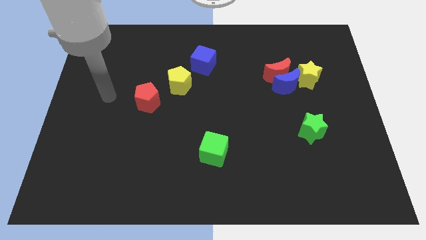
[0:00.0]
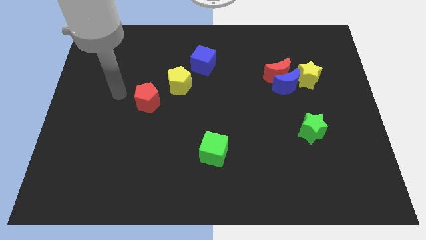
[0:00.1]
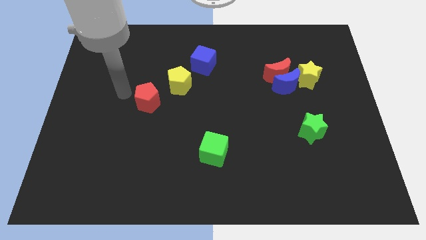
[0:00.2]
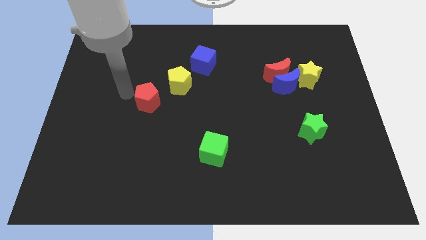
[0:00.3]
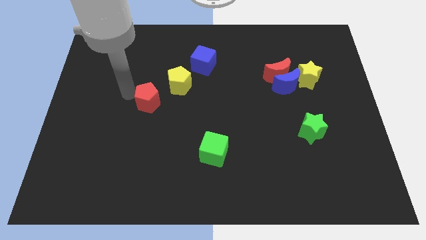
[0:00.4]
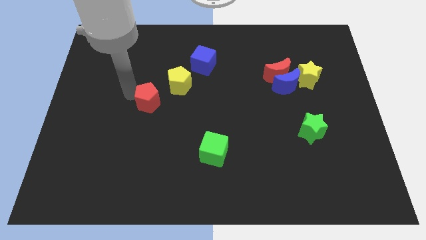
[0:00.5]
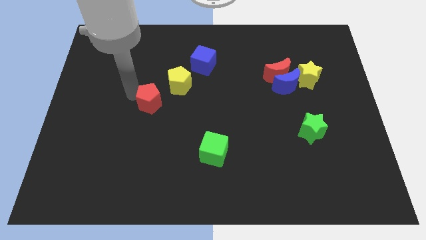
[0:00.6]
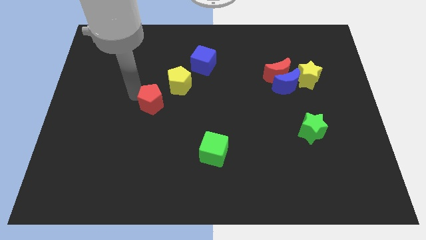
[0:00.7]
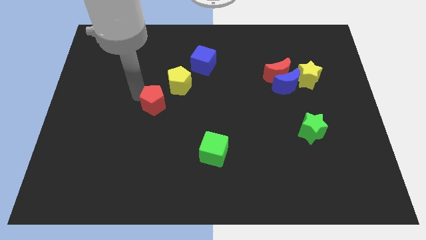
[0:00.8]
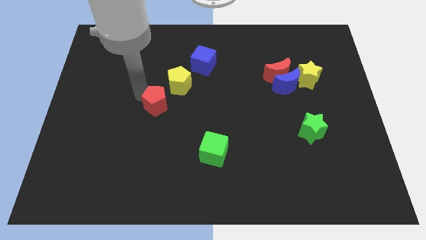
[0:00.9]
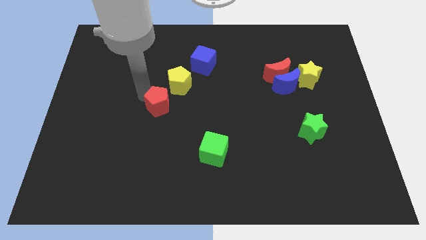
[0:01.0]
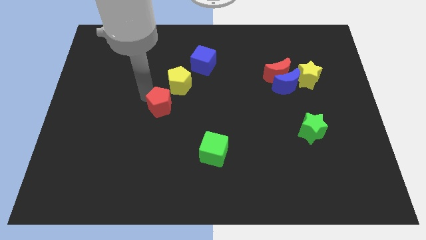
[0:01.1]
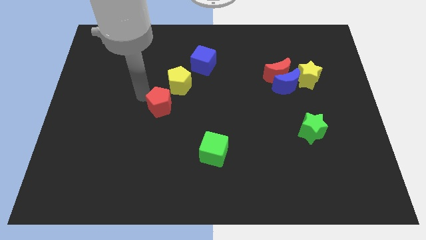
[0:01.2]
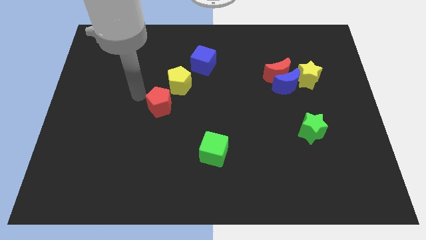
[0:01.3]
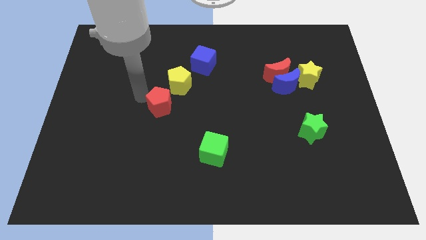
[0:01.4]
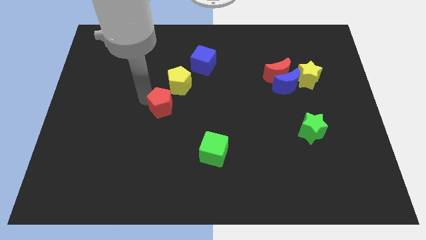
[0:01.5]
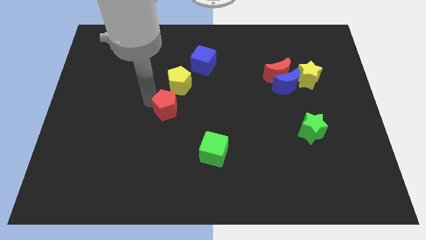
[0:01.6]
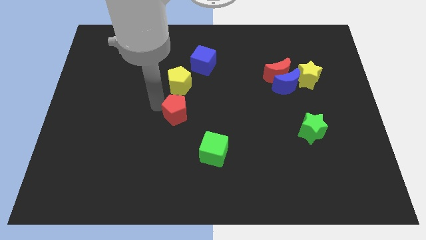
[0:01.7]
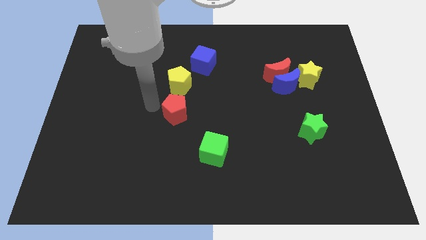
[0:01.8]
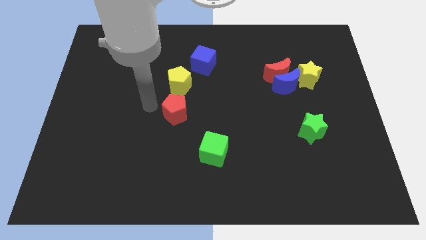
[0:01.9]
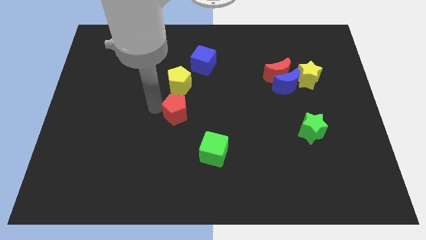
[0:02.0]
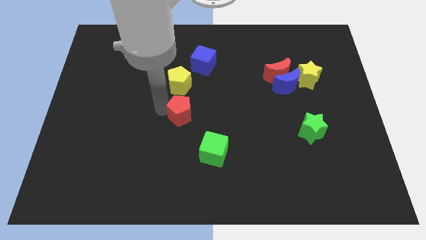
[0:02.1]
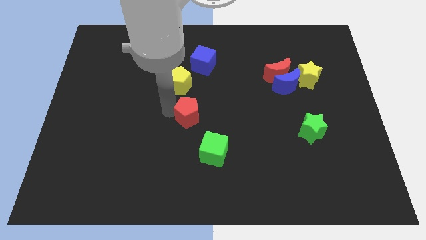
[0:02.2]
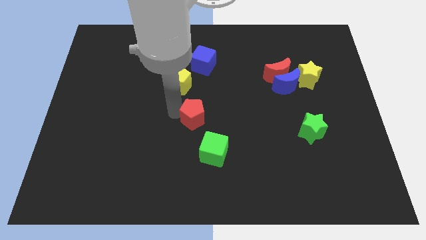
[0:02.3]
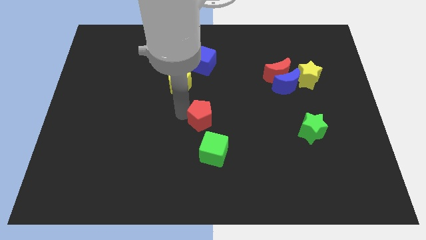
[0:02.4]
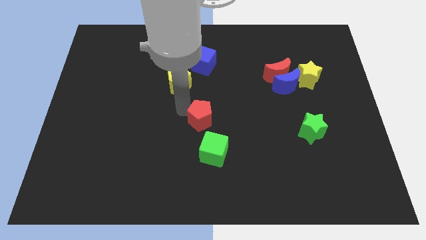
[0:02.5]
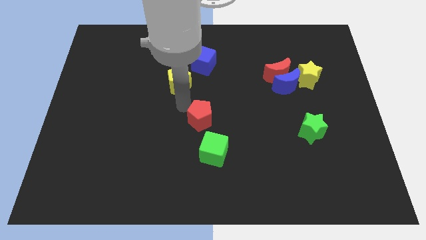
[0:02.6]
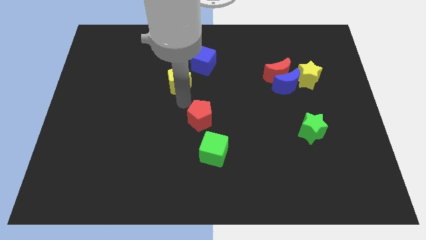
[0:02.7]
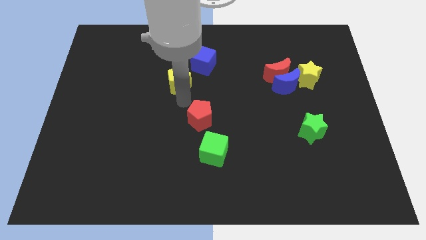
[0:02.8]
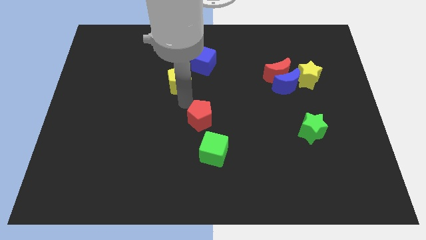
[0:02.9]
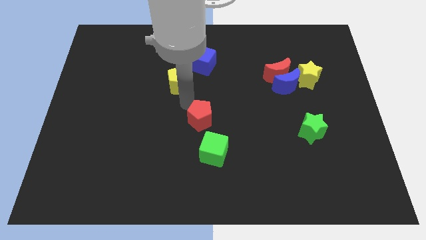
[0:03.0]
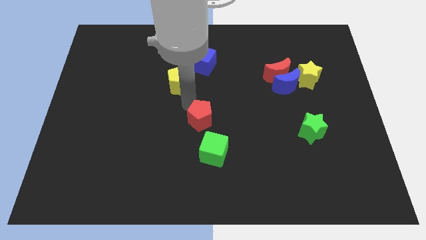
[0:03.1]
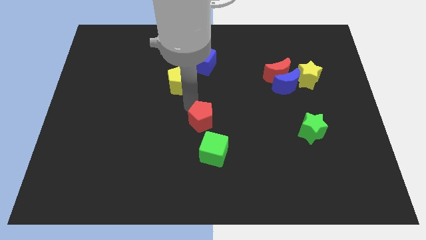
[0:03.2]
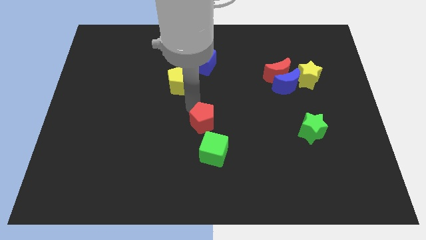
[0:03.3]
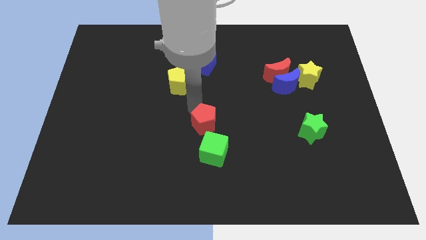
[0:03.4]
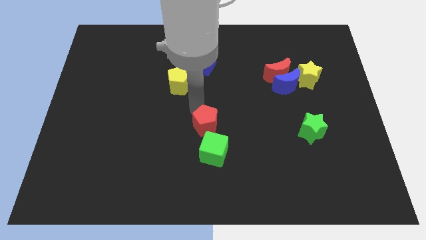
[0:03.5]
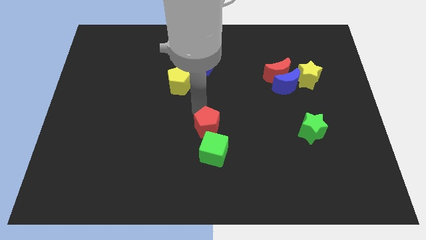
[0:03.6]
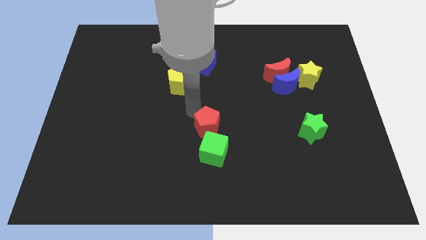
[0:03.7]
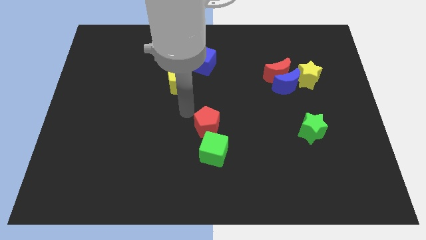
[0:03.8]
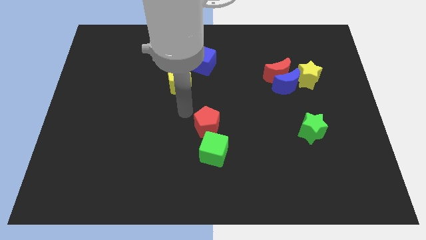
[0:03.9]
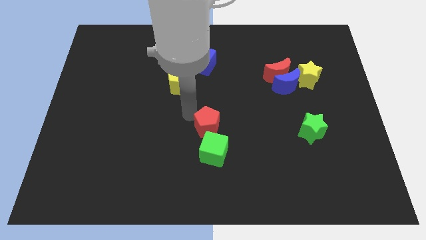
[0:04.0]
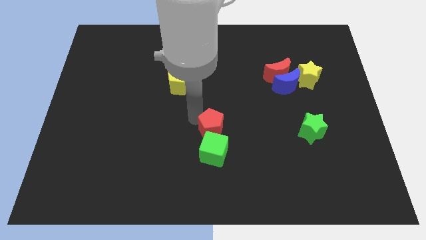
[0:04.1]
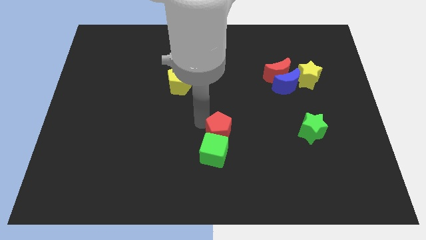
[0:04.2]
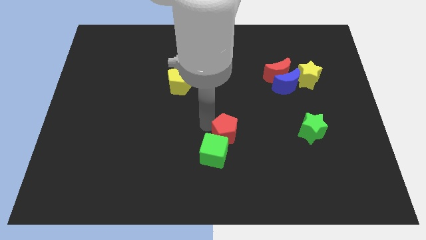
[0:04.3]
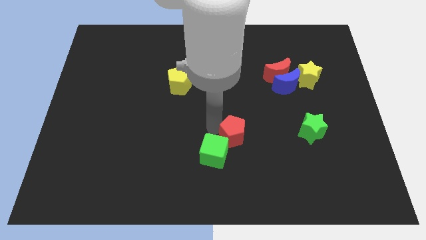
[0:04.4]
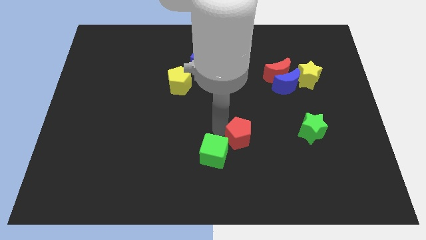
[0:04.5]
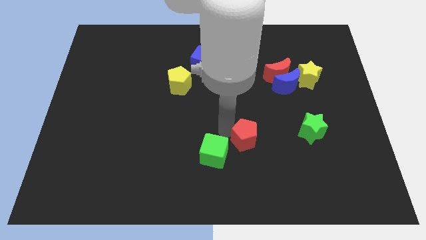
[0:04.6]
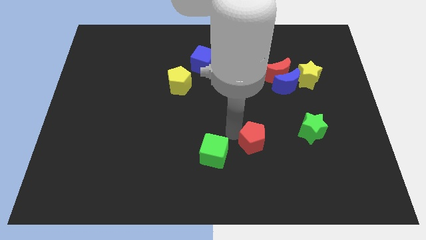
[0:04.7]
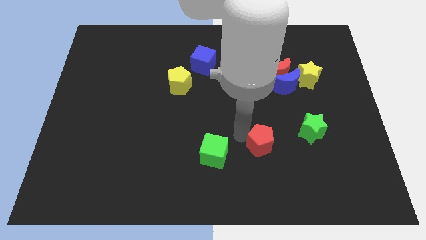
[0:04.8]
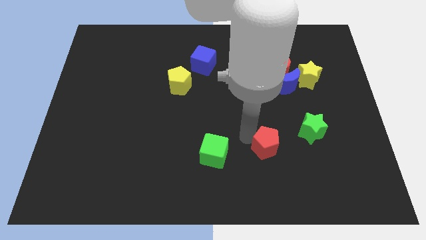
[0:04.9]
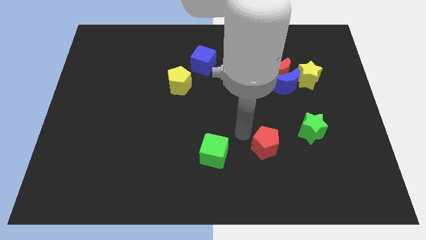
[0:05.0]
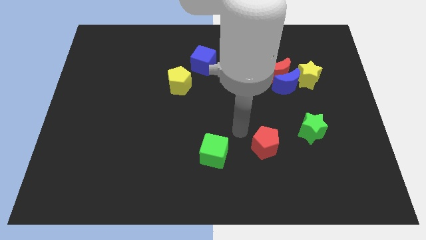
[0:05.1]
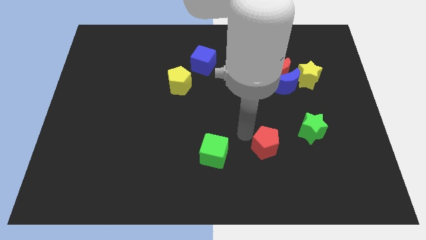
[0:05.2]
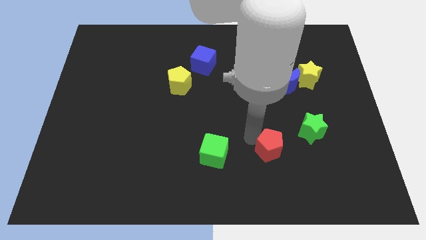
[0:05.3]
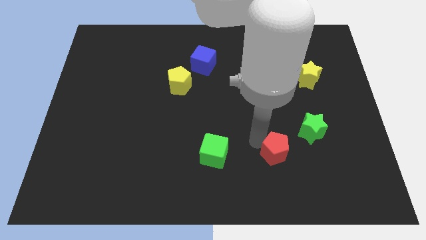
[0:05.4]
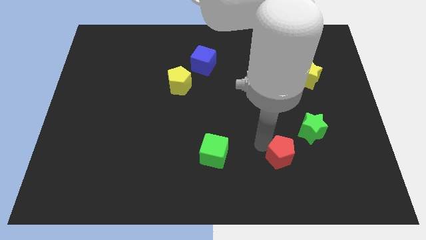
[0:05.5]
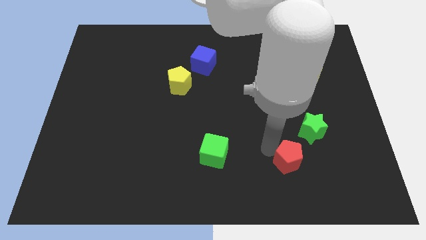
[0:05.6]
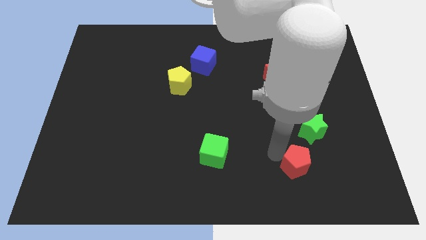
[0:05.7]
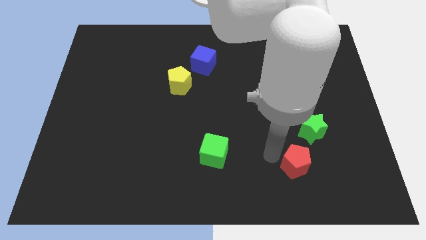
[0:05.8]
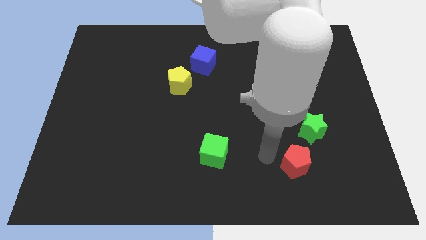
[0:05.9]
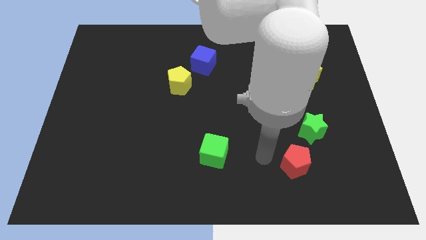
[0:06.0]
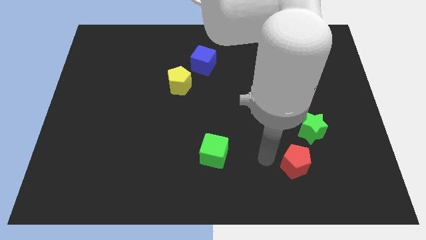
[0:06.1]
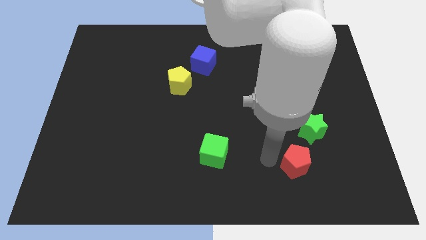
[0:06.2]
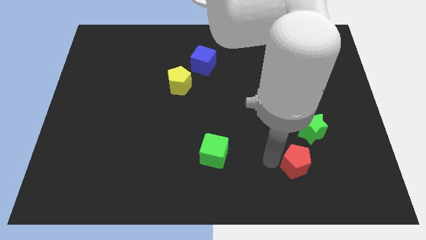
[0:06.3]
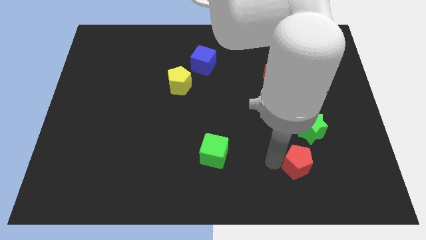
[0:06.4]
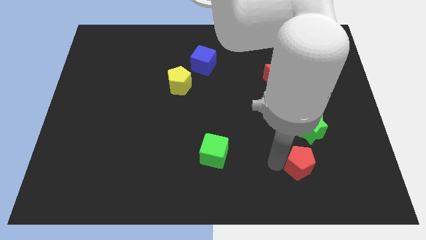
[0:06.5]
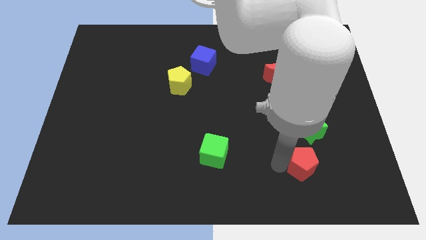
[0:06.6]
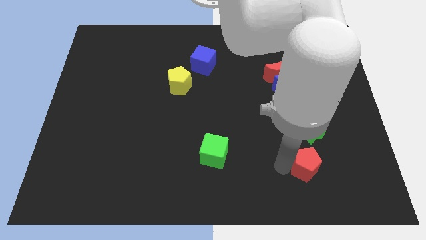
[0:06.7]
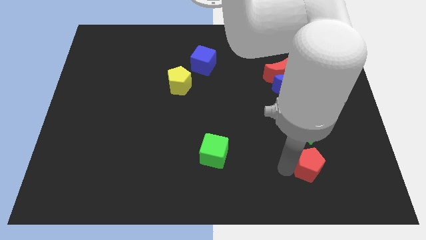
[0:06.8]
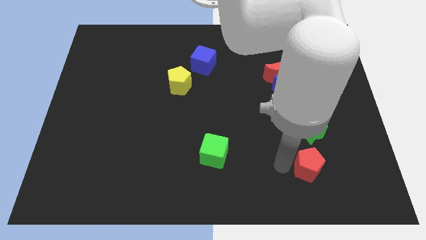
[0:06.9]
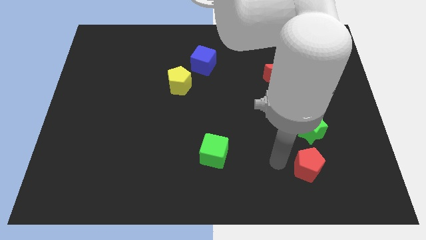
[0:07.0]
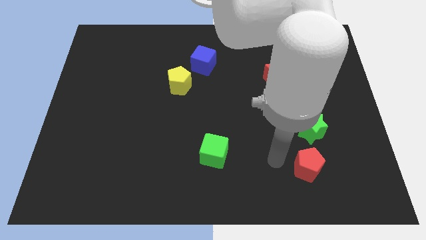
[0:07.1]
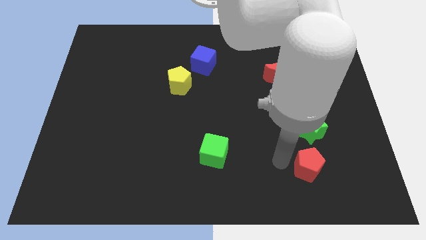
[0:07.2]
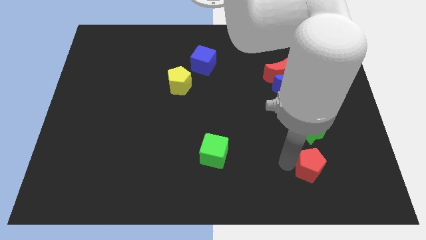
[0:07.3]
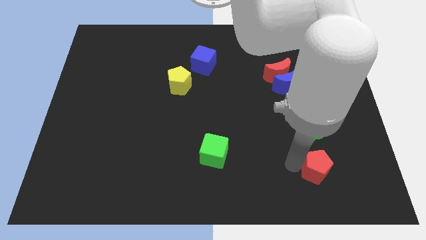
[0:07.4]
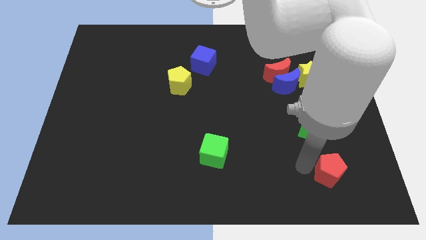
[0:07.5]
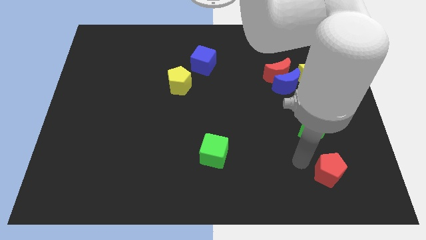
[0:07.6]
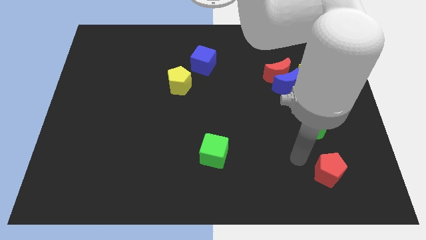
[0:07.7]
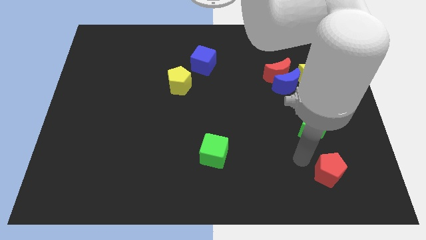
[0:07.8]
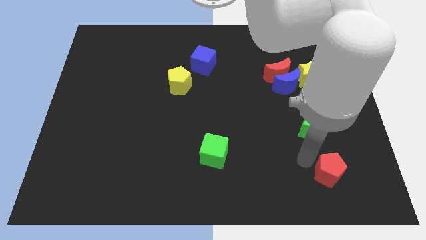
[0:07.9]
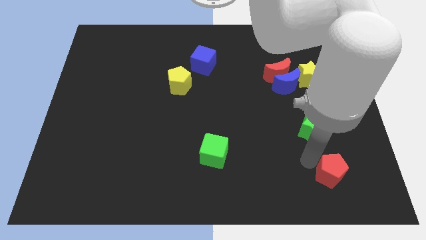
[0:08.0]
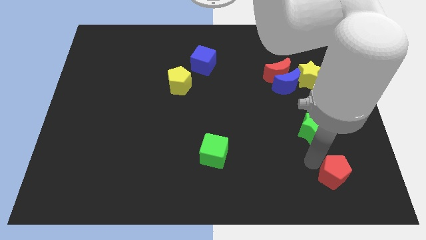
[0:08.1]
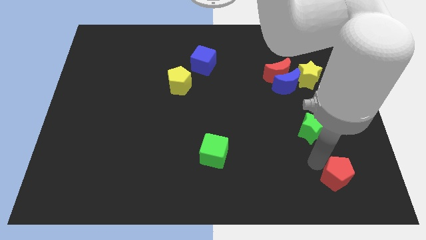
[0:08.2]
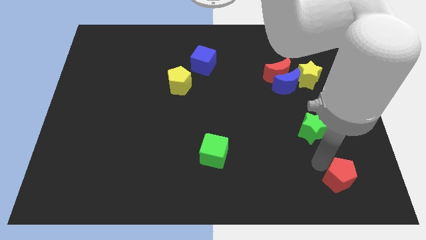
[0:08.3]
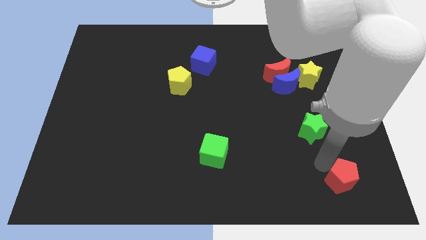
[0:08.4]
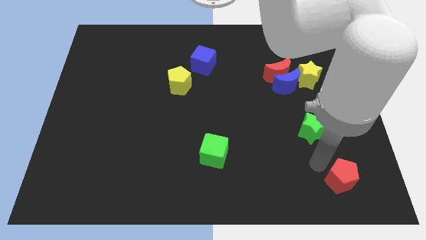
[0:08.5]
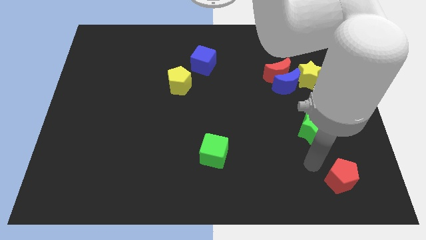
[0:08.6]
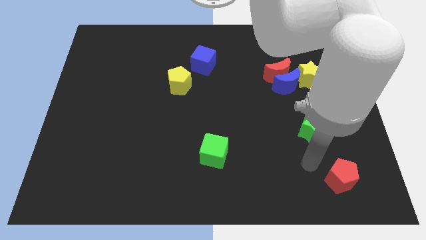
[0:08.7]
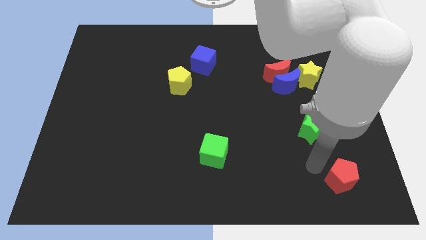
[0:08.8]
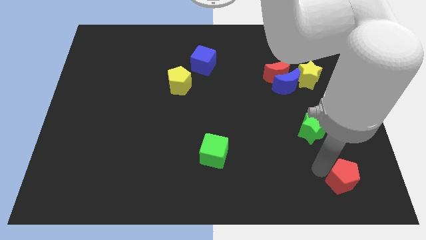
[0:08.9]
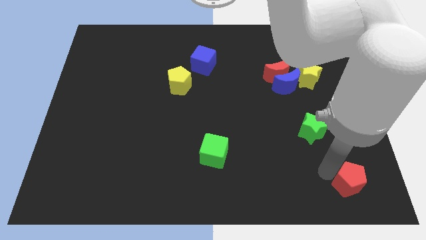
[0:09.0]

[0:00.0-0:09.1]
put the red pentagon to the bottom right
